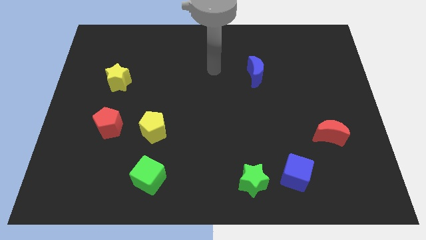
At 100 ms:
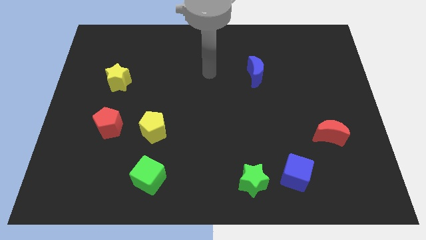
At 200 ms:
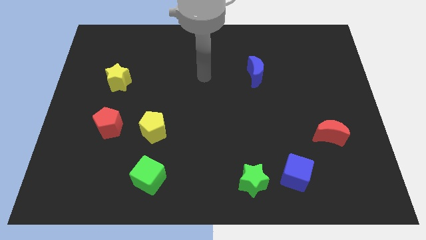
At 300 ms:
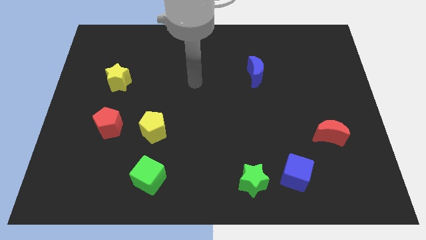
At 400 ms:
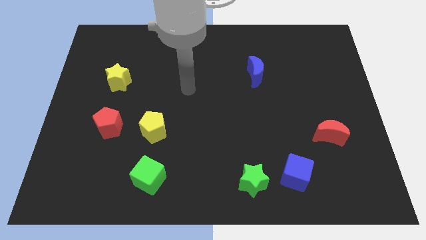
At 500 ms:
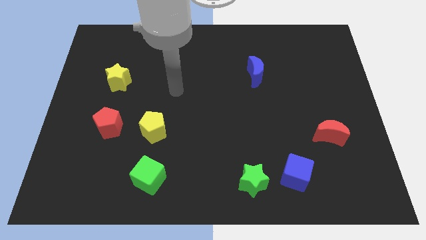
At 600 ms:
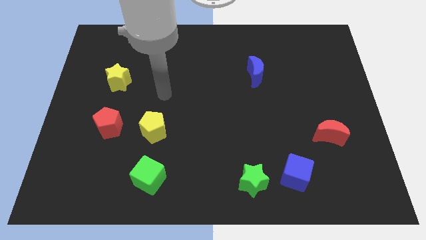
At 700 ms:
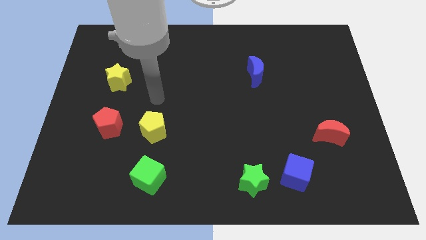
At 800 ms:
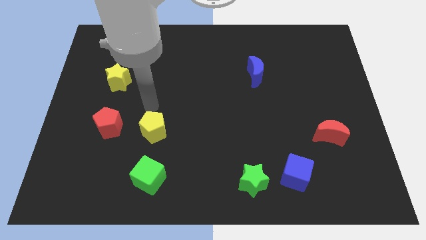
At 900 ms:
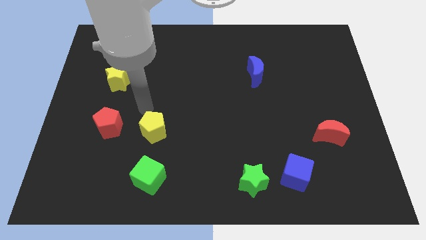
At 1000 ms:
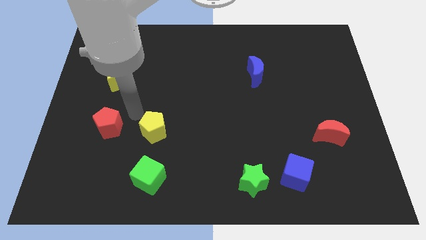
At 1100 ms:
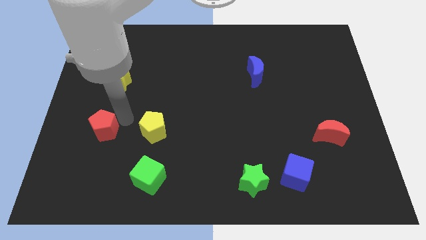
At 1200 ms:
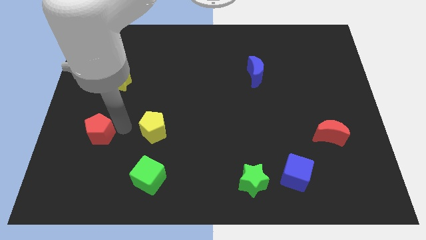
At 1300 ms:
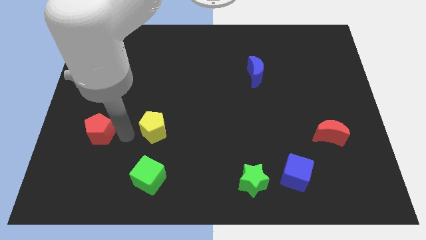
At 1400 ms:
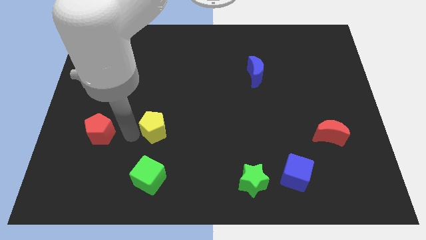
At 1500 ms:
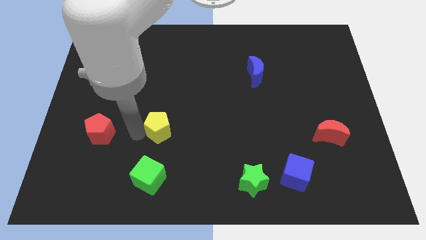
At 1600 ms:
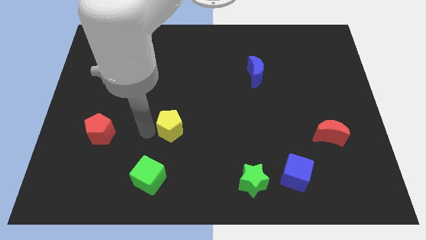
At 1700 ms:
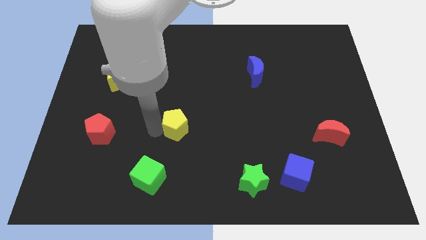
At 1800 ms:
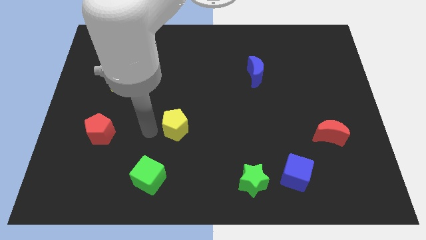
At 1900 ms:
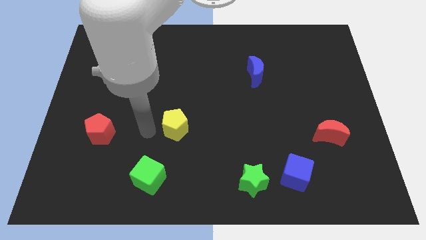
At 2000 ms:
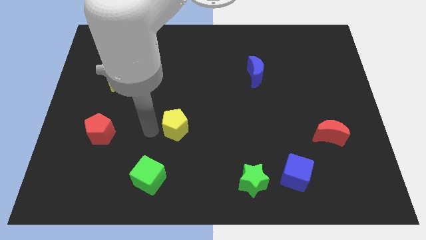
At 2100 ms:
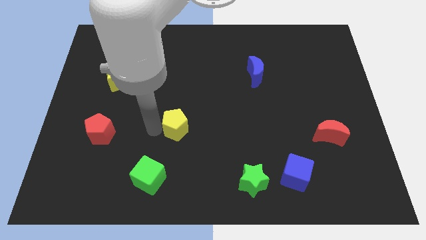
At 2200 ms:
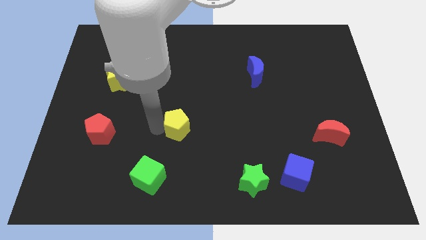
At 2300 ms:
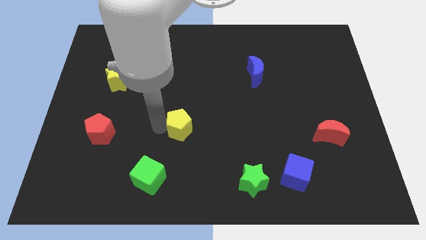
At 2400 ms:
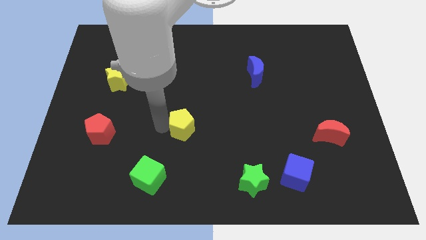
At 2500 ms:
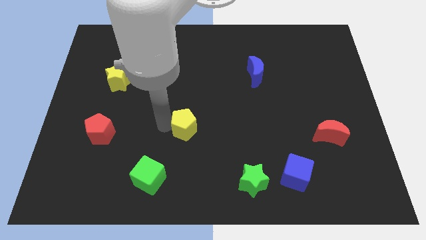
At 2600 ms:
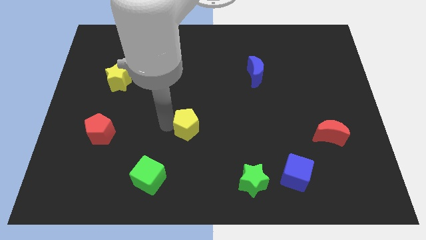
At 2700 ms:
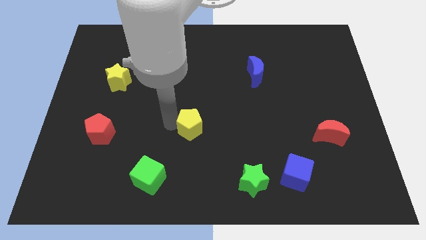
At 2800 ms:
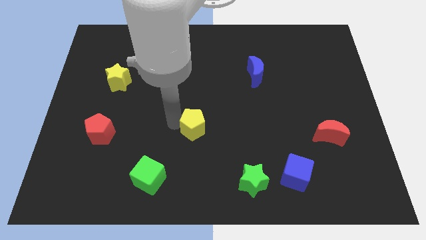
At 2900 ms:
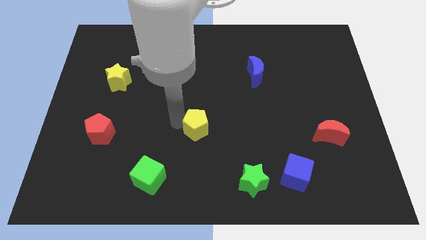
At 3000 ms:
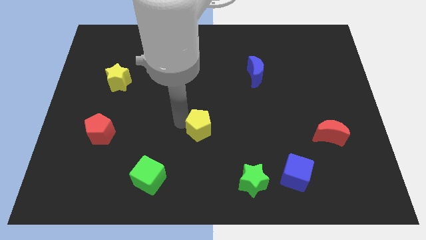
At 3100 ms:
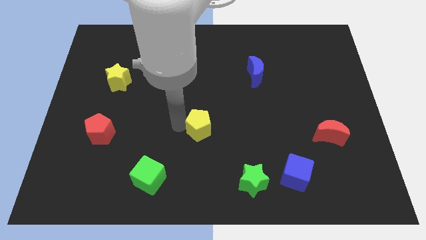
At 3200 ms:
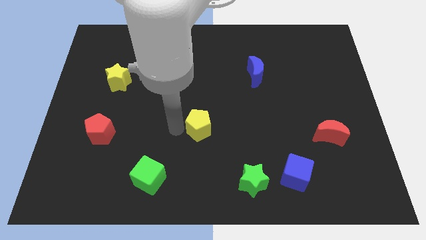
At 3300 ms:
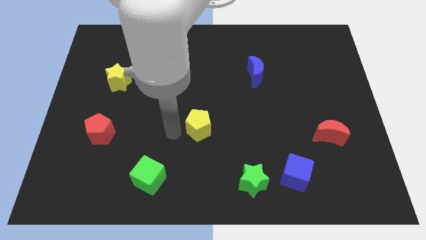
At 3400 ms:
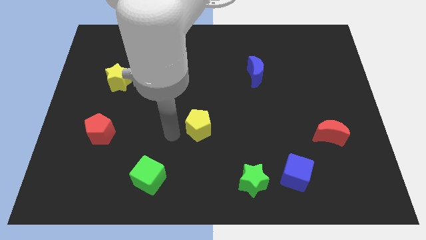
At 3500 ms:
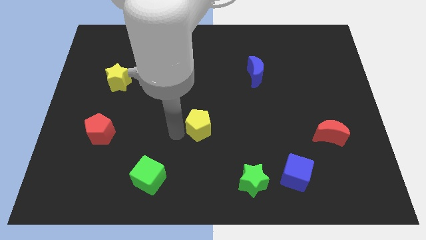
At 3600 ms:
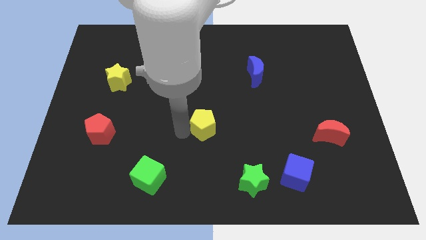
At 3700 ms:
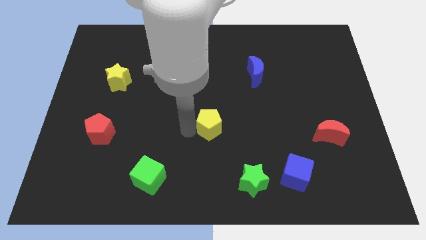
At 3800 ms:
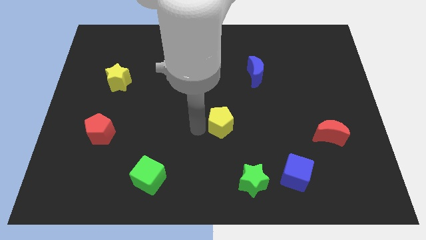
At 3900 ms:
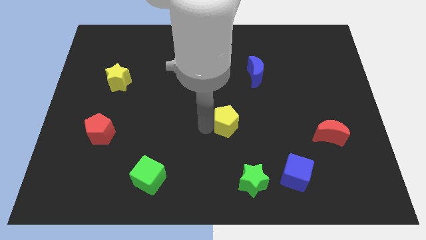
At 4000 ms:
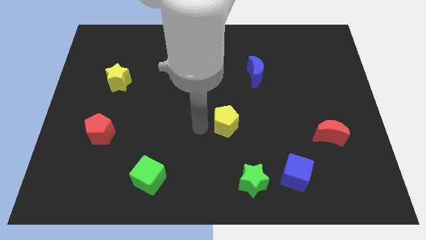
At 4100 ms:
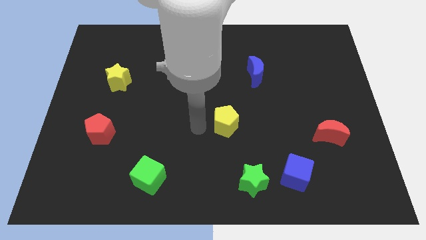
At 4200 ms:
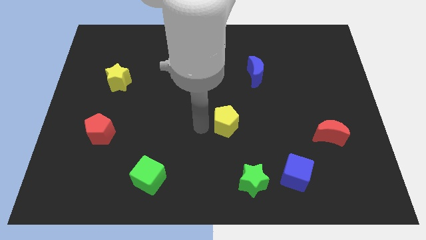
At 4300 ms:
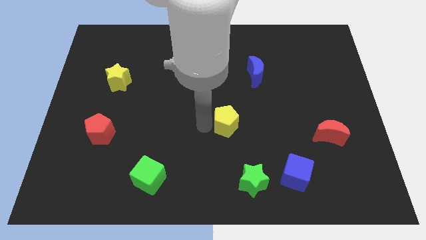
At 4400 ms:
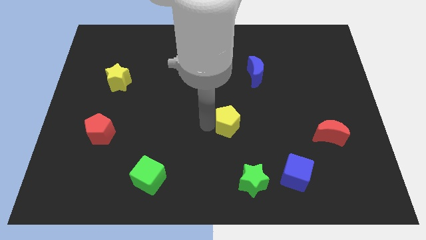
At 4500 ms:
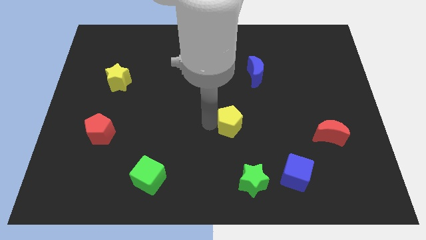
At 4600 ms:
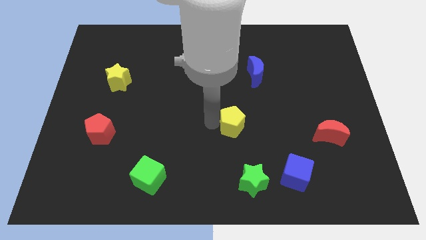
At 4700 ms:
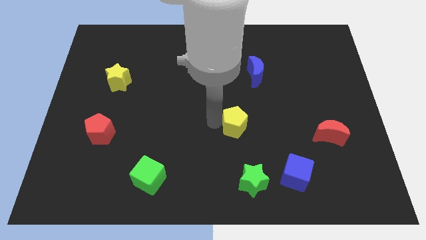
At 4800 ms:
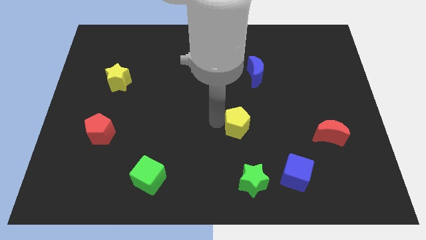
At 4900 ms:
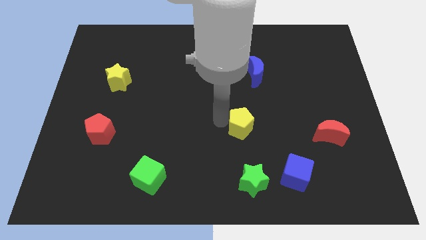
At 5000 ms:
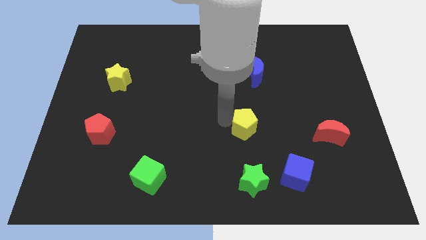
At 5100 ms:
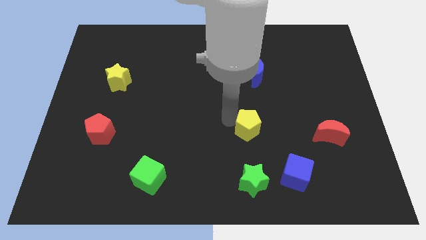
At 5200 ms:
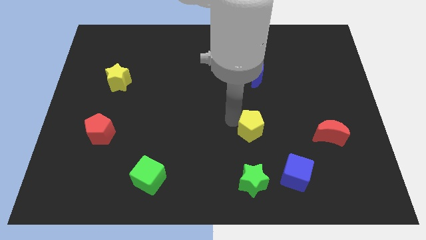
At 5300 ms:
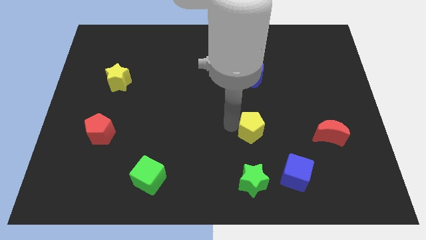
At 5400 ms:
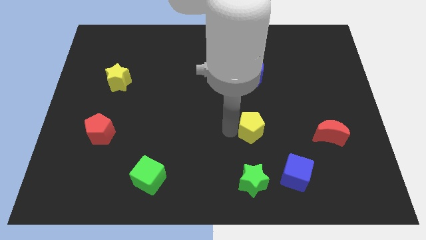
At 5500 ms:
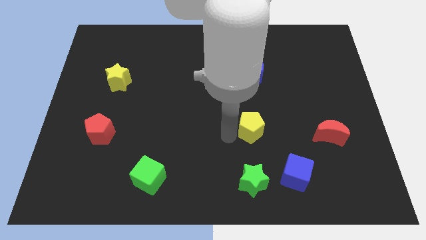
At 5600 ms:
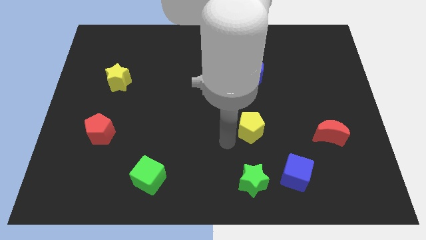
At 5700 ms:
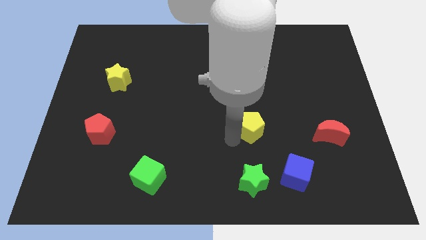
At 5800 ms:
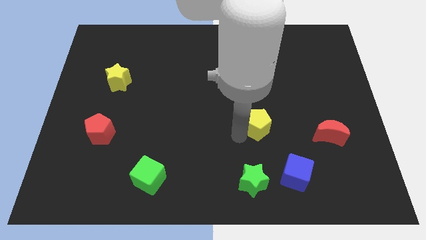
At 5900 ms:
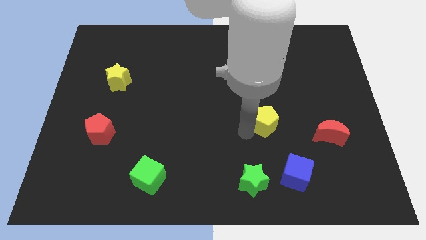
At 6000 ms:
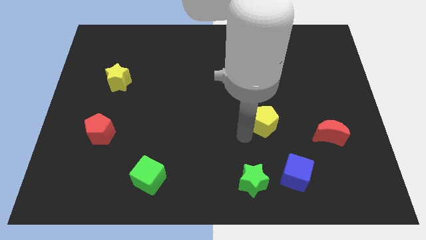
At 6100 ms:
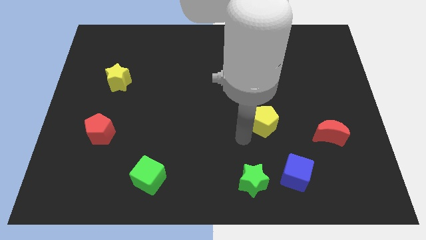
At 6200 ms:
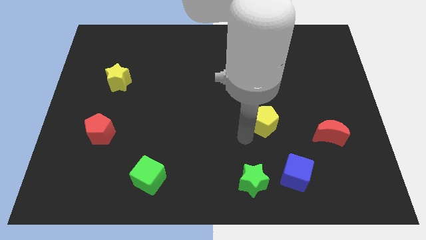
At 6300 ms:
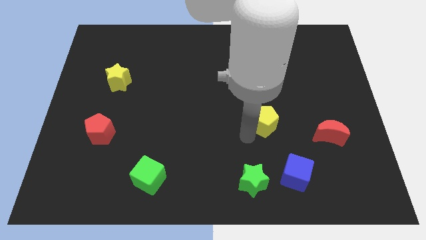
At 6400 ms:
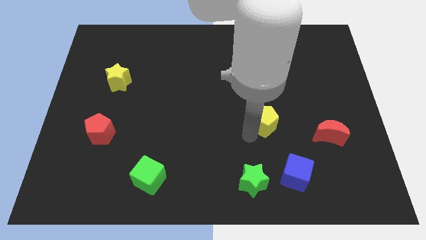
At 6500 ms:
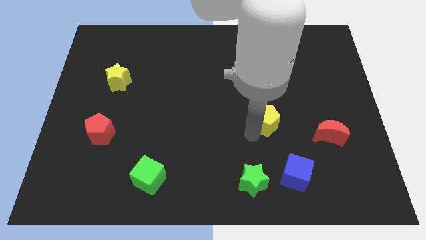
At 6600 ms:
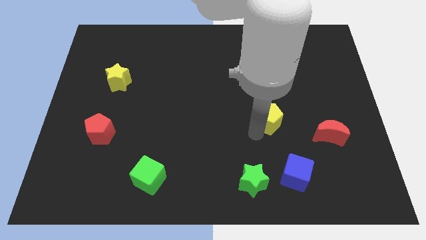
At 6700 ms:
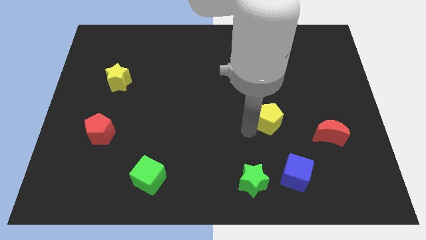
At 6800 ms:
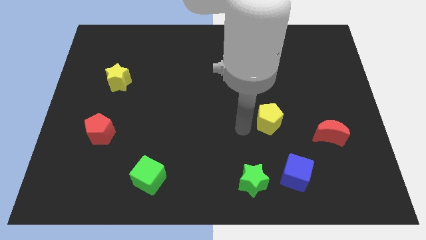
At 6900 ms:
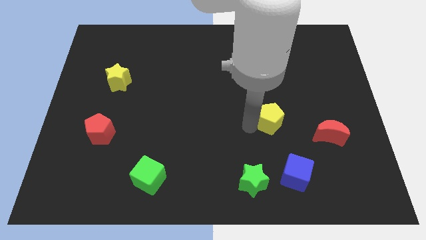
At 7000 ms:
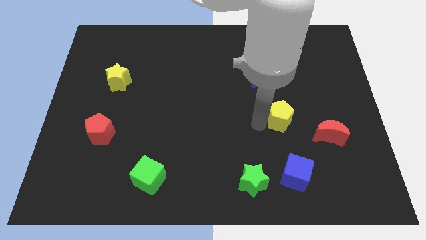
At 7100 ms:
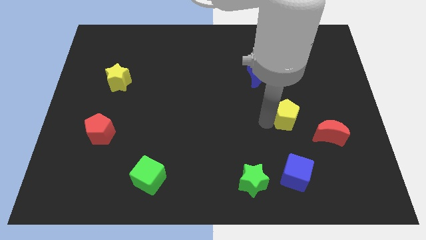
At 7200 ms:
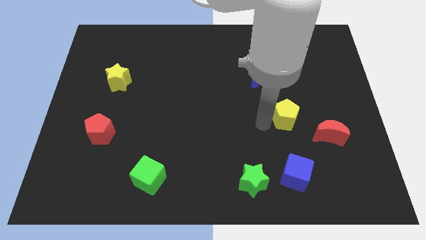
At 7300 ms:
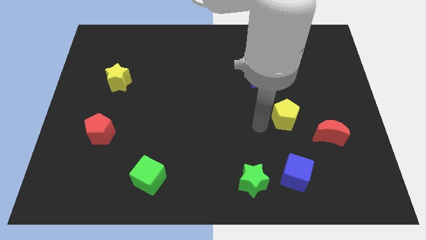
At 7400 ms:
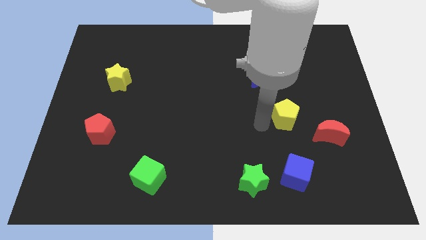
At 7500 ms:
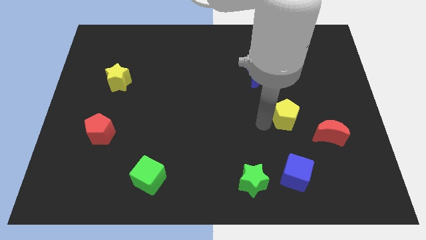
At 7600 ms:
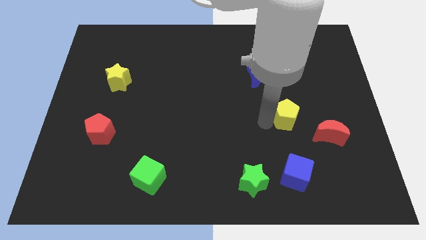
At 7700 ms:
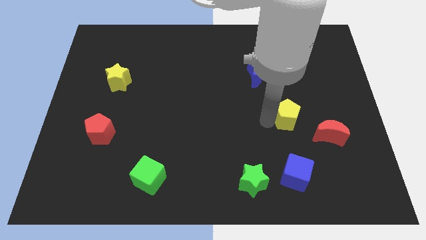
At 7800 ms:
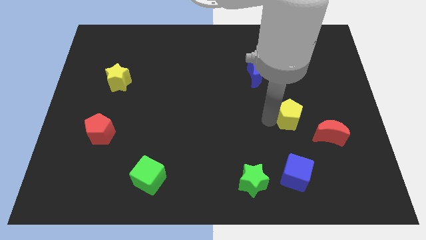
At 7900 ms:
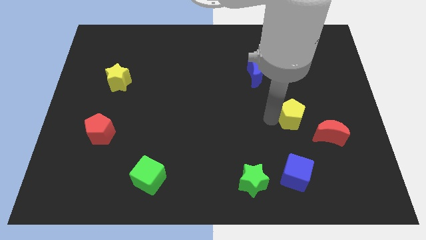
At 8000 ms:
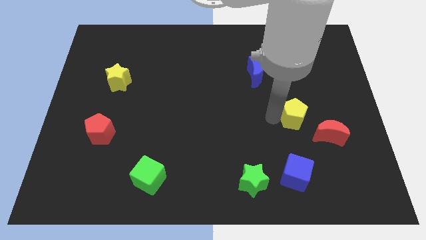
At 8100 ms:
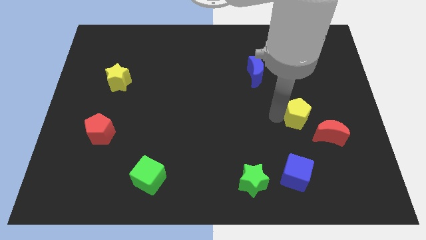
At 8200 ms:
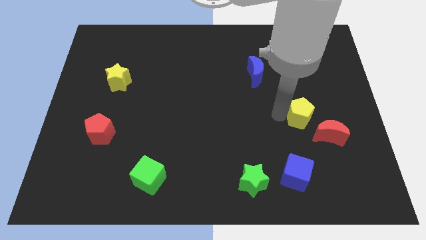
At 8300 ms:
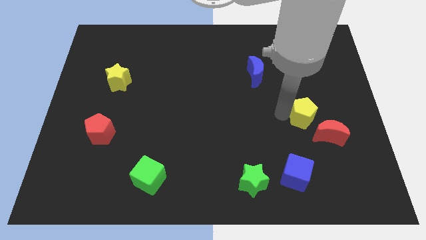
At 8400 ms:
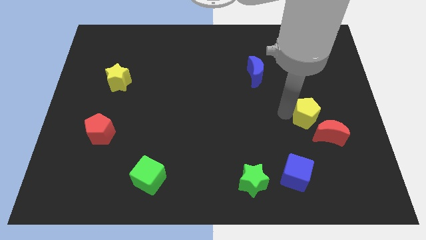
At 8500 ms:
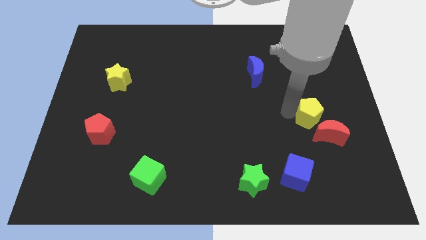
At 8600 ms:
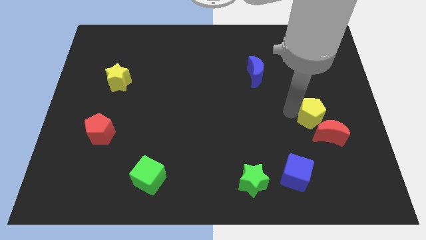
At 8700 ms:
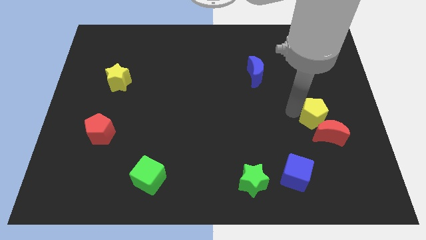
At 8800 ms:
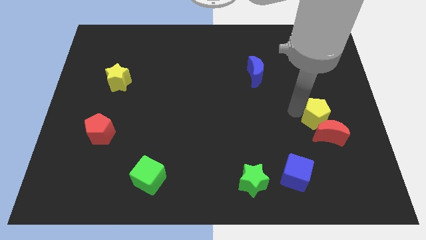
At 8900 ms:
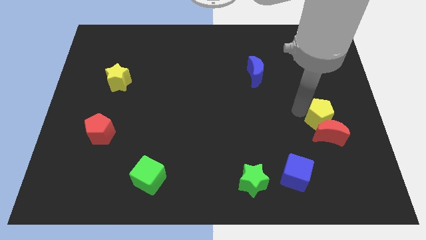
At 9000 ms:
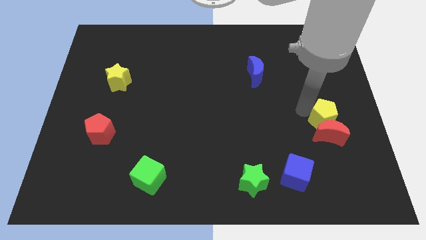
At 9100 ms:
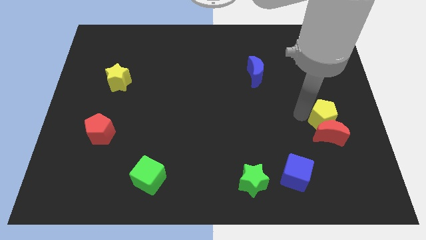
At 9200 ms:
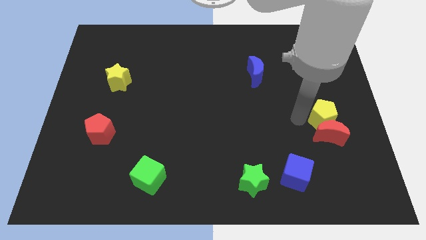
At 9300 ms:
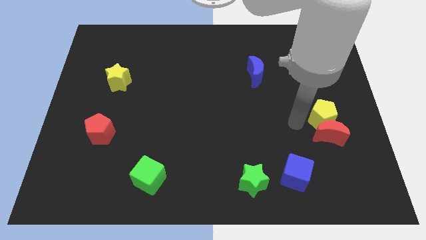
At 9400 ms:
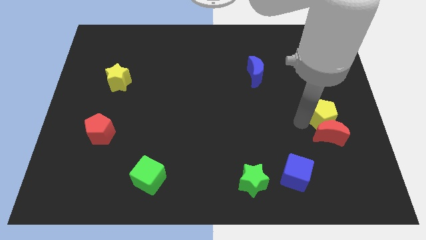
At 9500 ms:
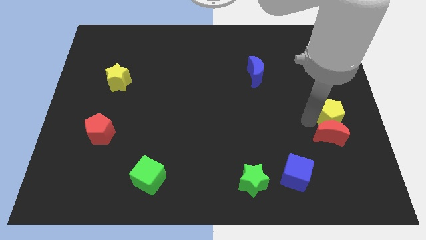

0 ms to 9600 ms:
push the yellow pentagon to the right side
